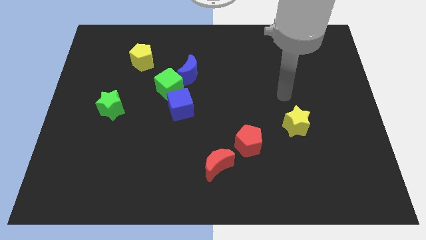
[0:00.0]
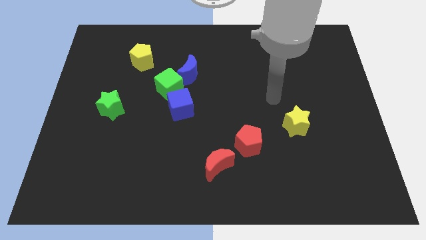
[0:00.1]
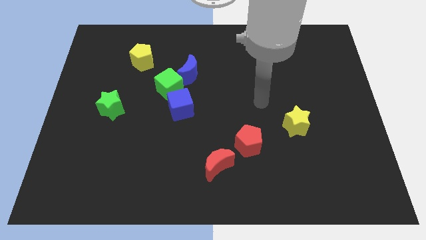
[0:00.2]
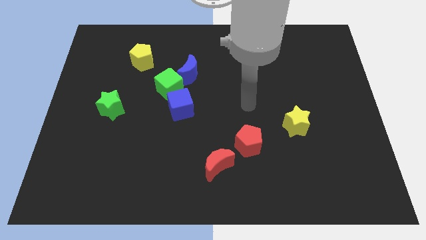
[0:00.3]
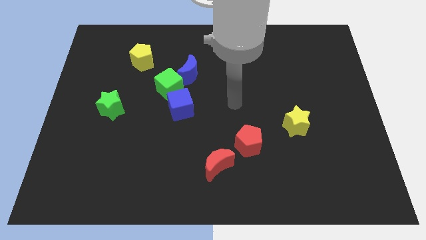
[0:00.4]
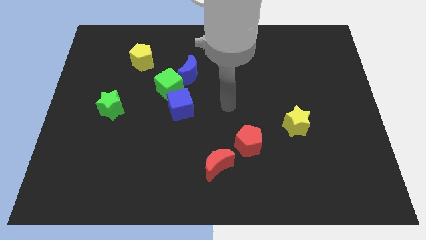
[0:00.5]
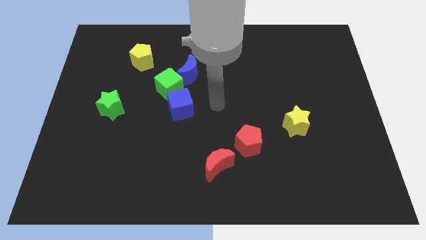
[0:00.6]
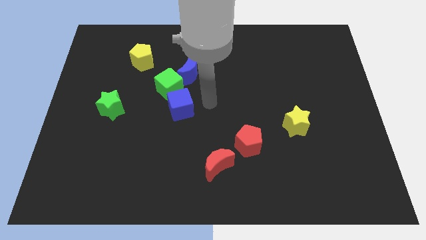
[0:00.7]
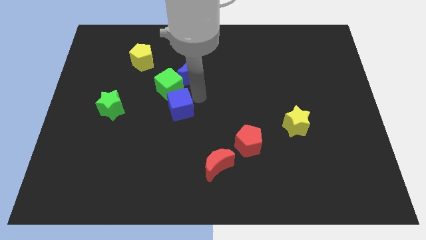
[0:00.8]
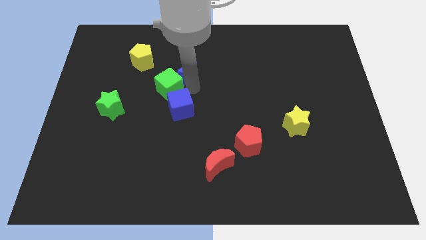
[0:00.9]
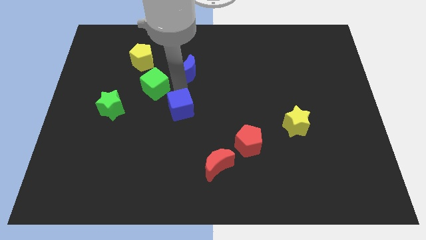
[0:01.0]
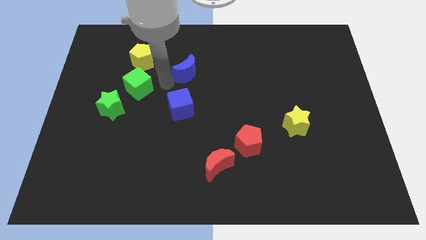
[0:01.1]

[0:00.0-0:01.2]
move the blue moon away from the green cube

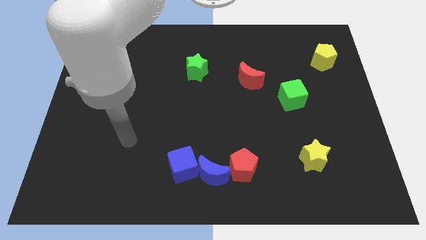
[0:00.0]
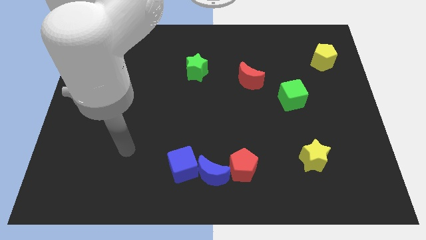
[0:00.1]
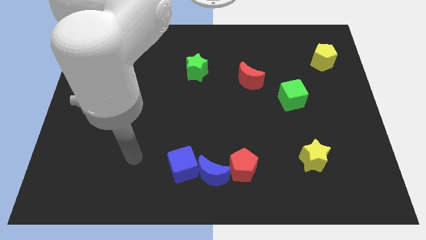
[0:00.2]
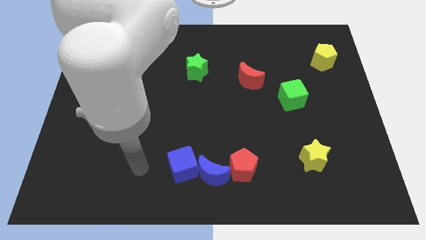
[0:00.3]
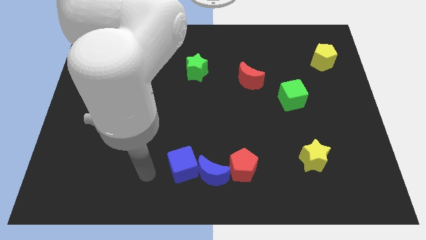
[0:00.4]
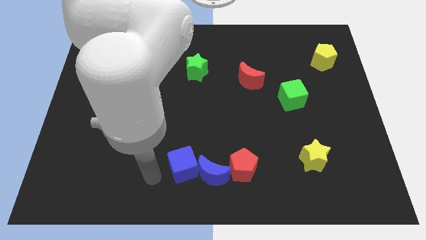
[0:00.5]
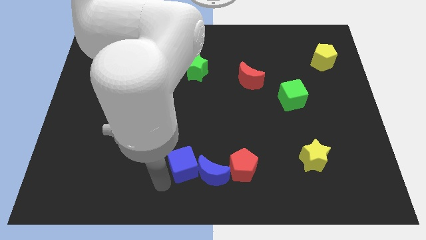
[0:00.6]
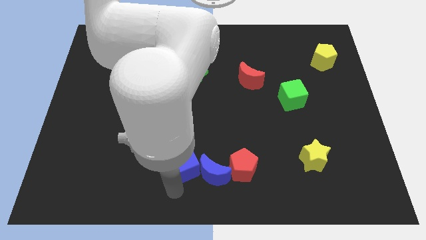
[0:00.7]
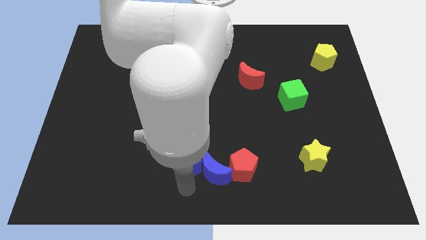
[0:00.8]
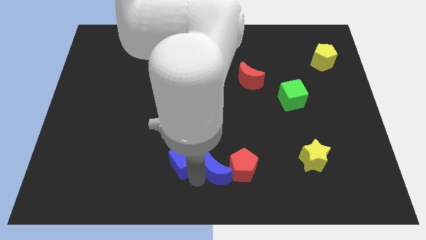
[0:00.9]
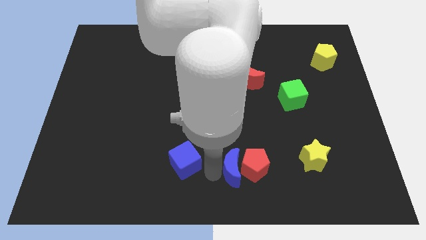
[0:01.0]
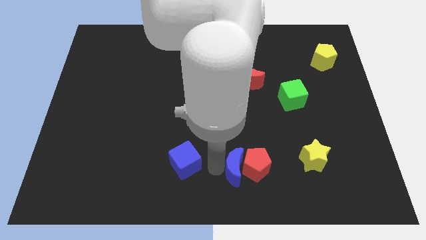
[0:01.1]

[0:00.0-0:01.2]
move the blue cube away from the blue moon

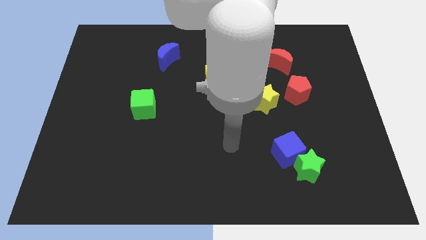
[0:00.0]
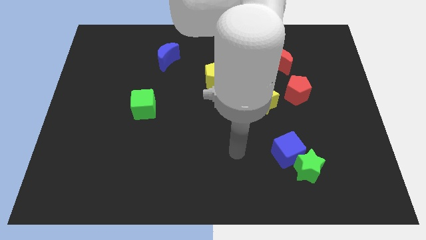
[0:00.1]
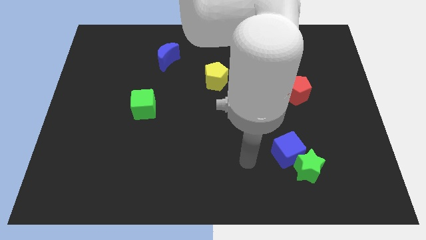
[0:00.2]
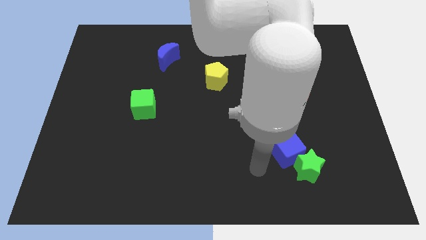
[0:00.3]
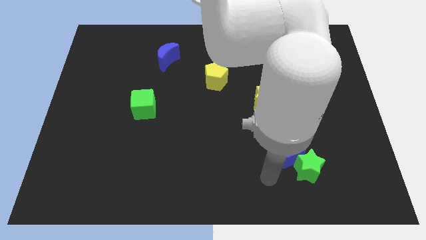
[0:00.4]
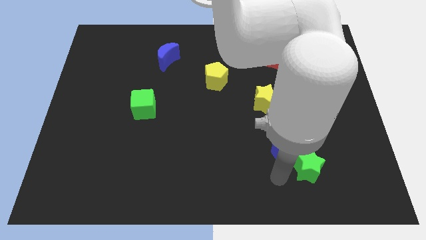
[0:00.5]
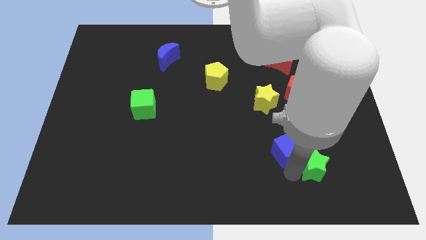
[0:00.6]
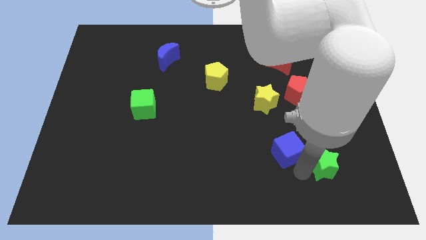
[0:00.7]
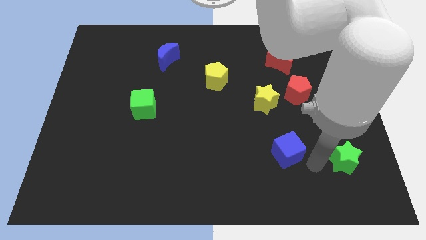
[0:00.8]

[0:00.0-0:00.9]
separate the blue cube from the green star

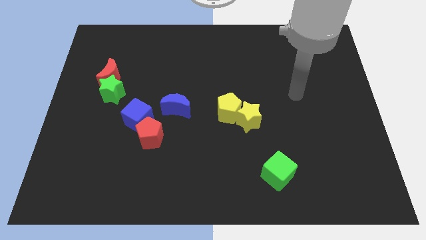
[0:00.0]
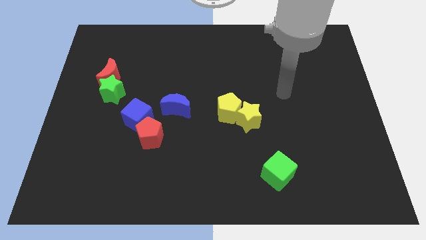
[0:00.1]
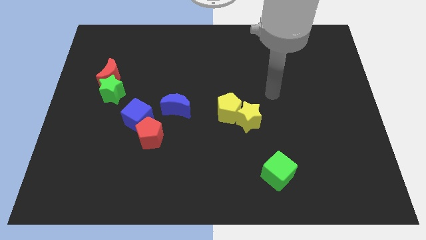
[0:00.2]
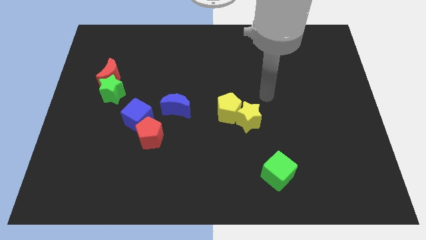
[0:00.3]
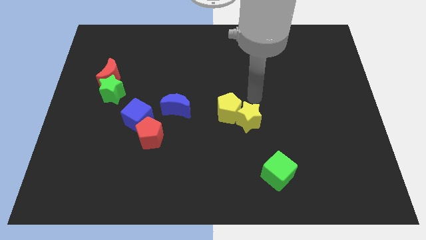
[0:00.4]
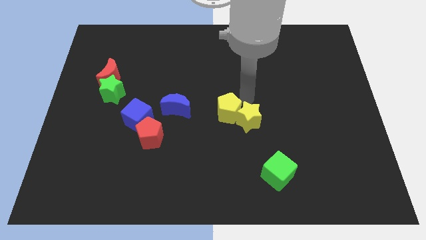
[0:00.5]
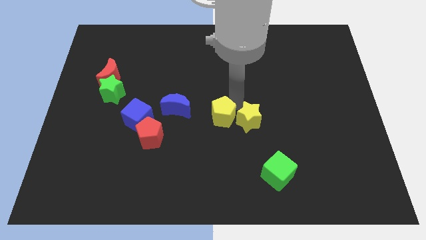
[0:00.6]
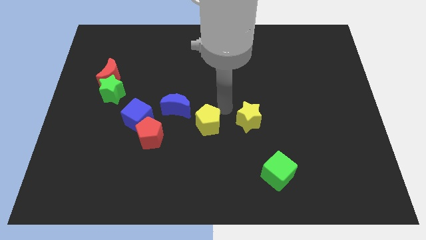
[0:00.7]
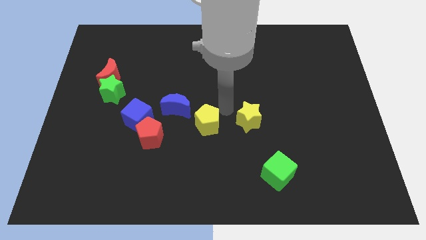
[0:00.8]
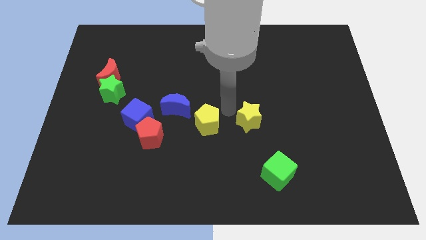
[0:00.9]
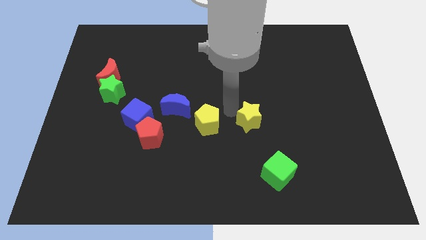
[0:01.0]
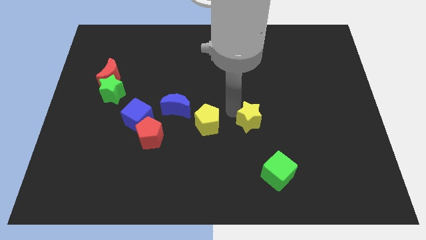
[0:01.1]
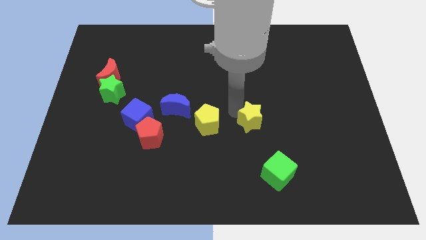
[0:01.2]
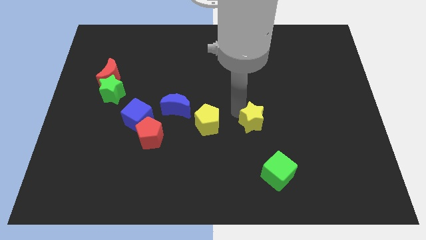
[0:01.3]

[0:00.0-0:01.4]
pull the yellow star apart from the yellow pentagon

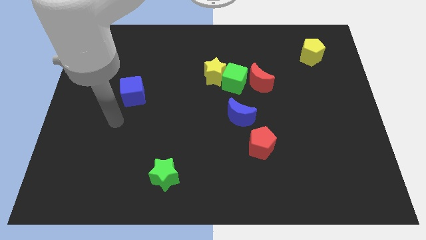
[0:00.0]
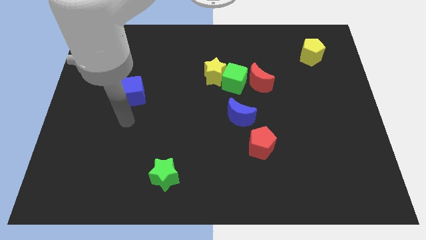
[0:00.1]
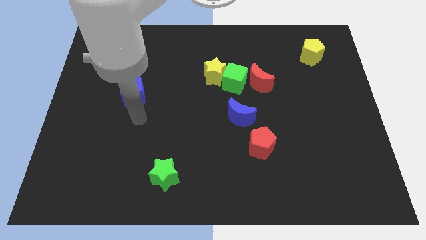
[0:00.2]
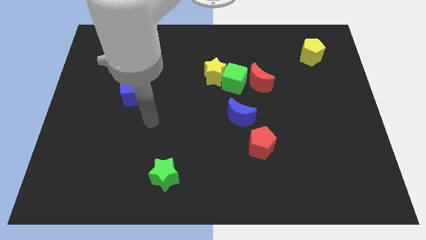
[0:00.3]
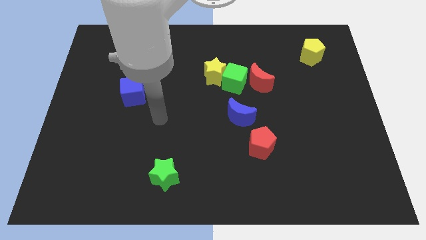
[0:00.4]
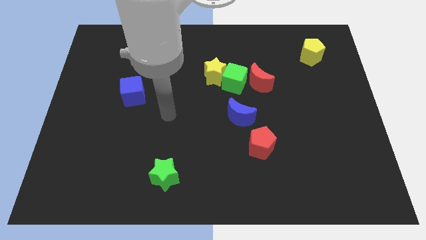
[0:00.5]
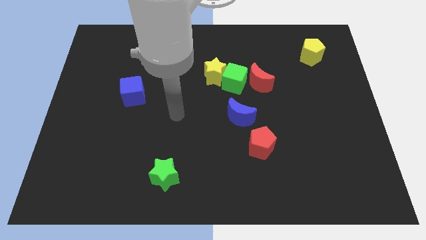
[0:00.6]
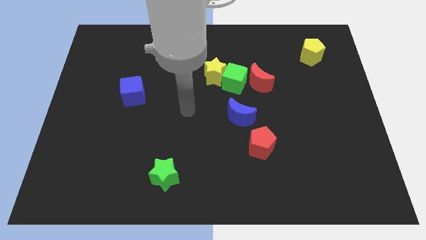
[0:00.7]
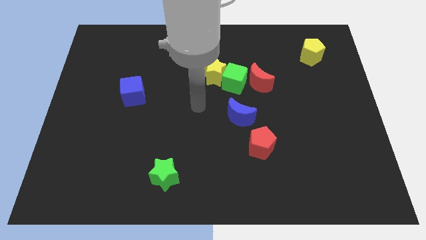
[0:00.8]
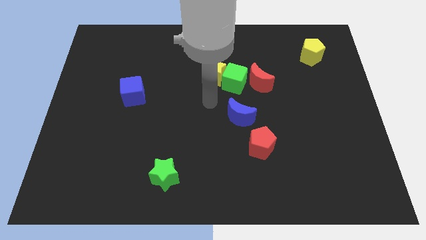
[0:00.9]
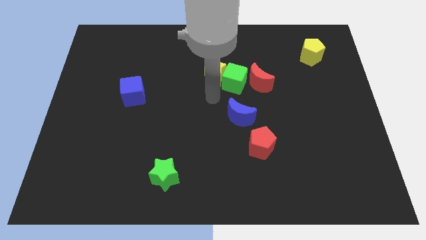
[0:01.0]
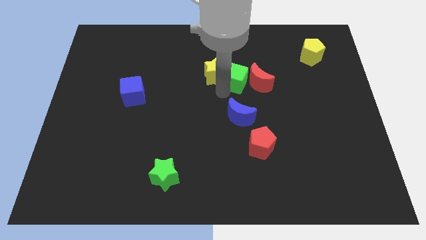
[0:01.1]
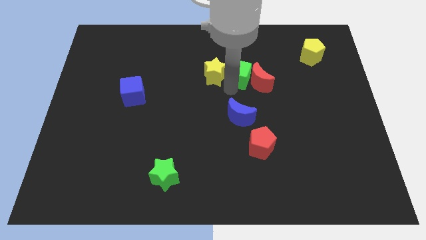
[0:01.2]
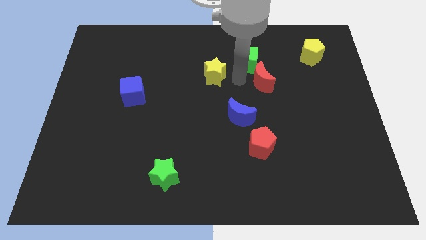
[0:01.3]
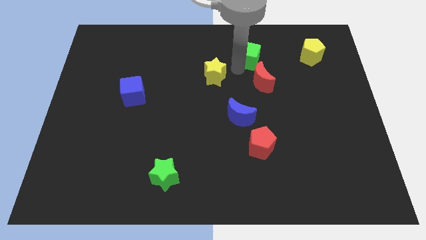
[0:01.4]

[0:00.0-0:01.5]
separate the yellow star from the green cube

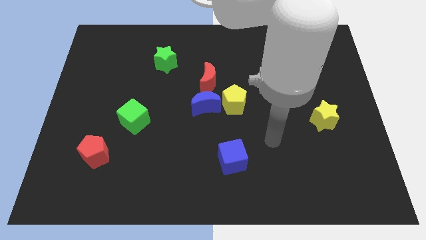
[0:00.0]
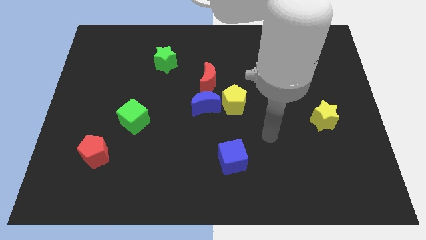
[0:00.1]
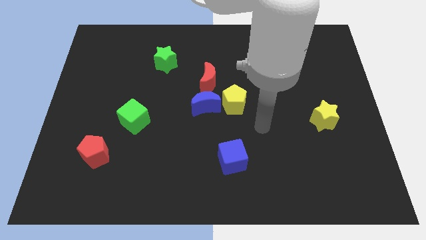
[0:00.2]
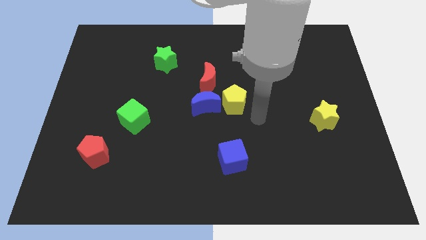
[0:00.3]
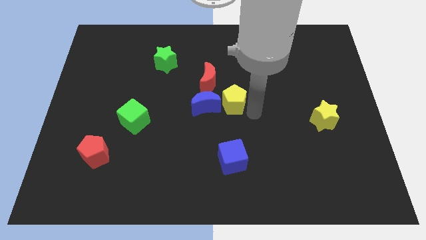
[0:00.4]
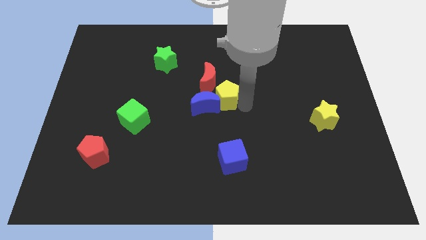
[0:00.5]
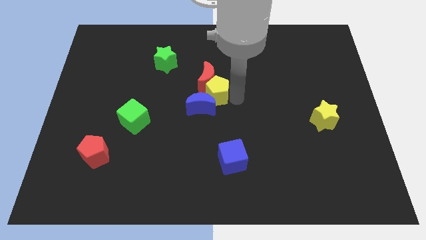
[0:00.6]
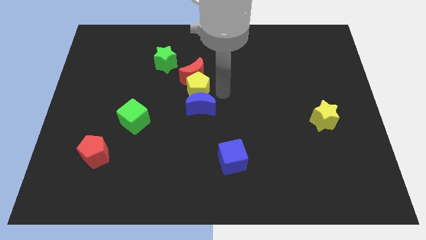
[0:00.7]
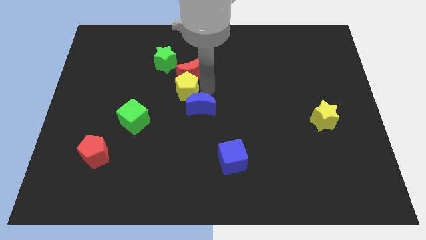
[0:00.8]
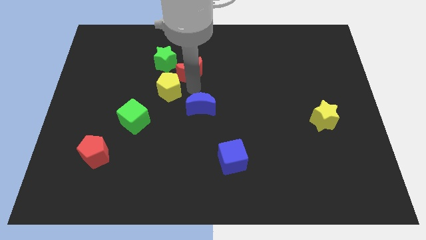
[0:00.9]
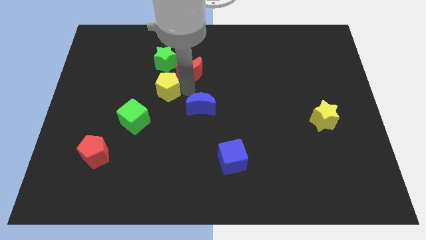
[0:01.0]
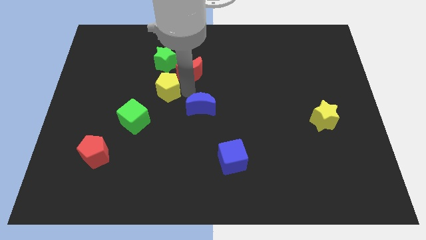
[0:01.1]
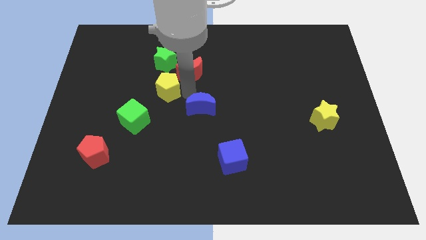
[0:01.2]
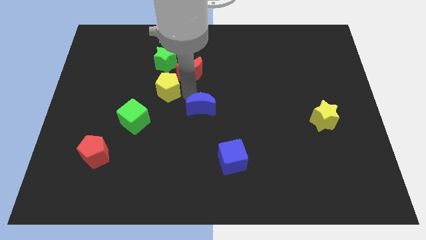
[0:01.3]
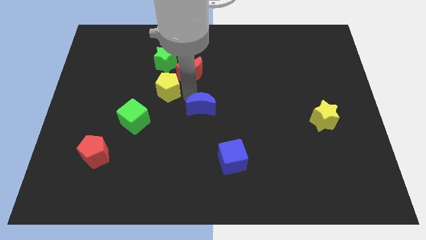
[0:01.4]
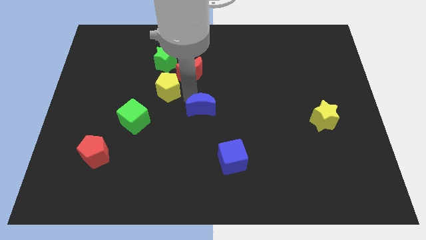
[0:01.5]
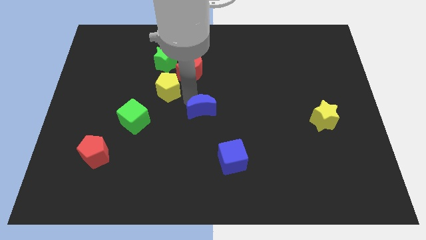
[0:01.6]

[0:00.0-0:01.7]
separate the blue moon from the yellow pentagon and red moon

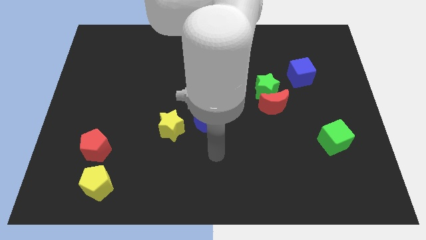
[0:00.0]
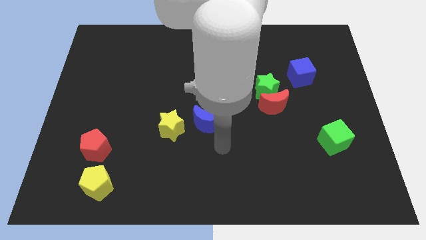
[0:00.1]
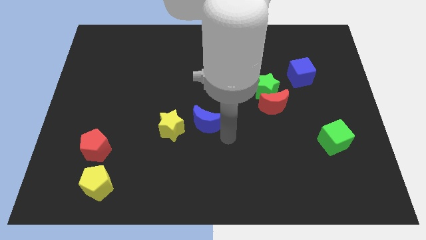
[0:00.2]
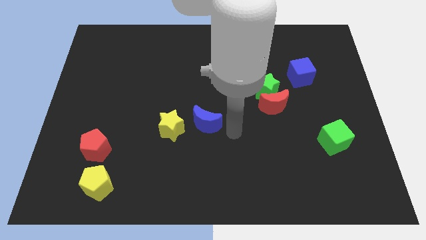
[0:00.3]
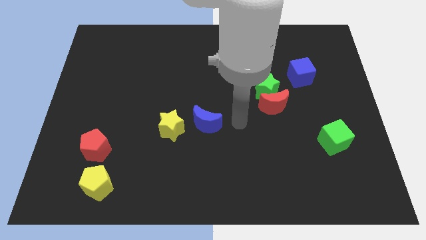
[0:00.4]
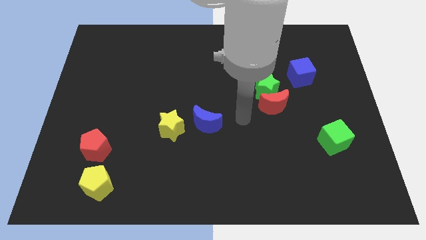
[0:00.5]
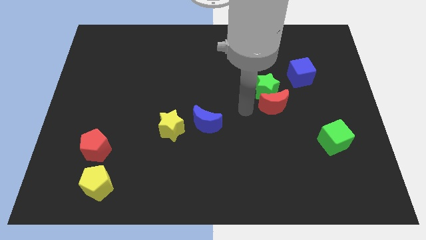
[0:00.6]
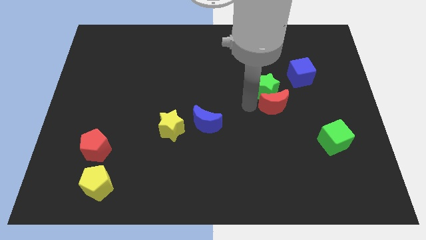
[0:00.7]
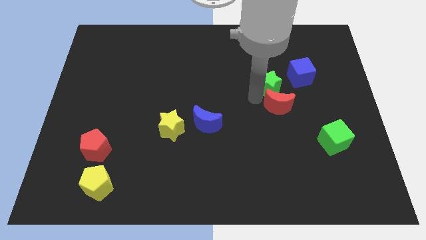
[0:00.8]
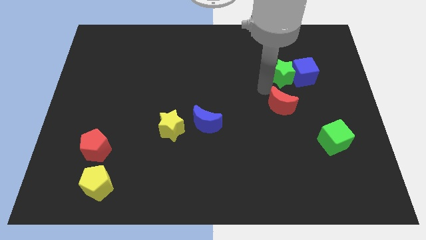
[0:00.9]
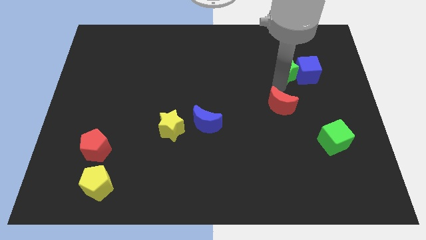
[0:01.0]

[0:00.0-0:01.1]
separate the red moon from the green star

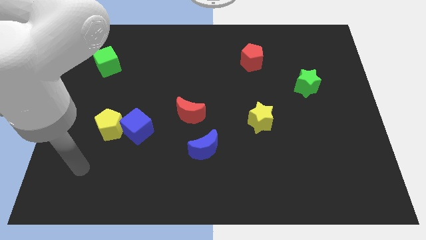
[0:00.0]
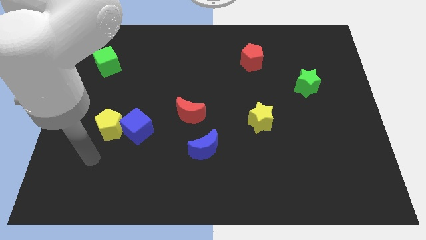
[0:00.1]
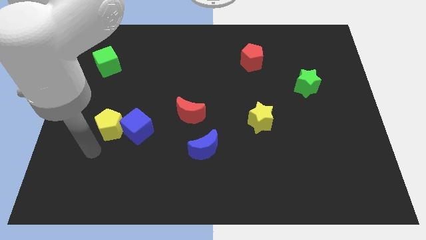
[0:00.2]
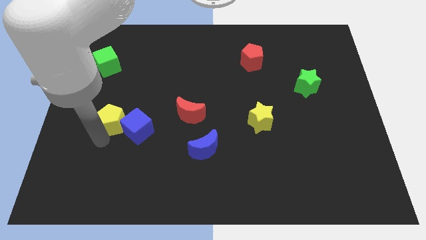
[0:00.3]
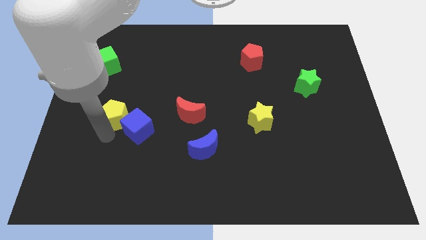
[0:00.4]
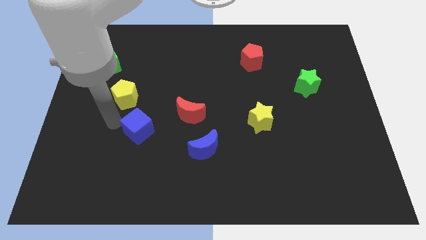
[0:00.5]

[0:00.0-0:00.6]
pull the blue cube apart from the yellow pentagon
